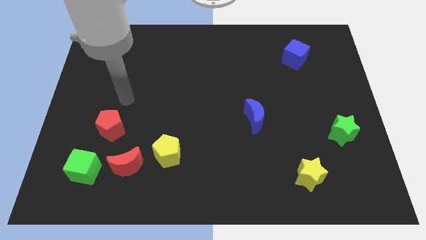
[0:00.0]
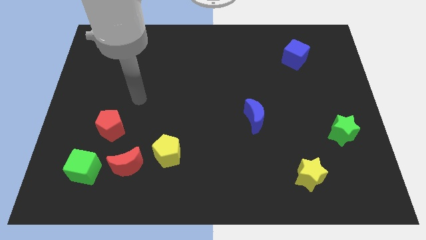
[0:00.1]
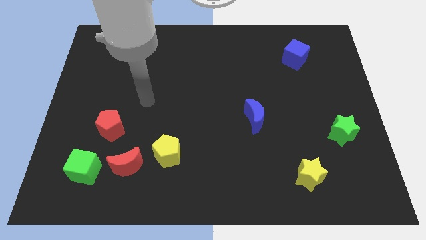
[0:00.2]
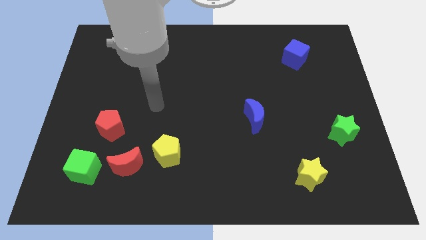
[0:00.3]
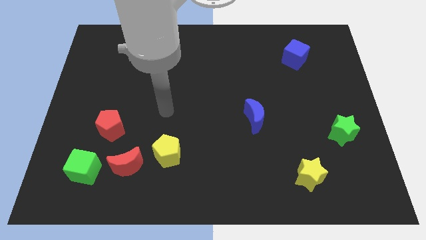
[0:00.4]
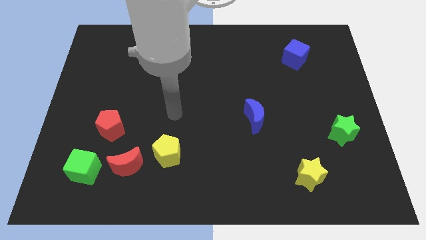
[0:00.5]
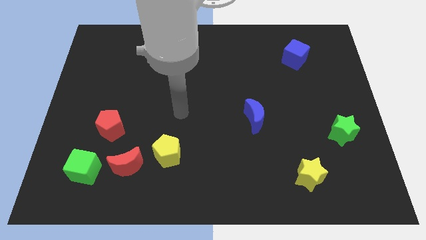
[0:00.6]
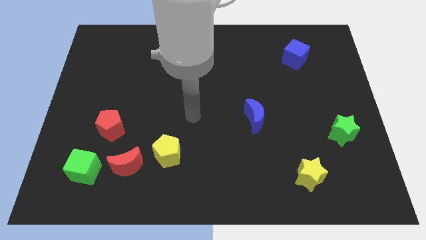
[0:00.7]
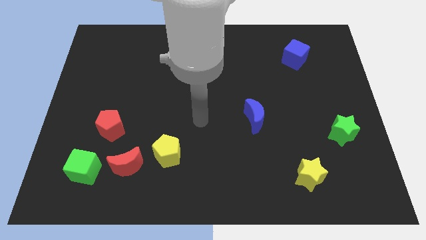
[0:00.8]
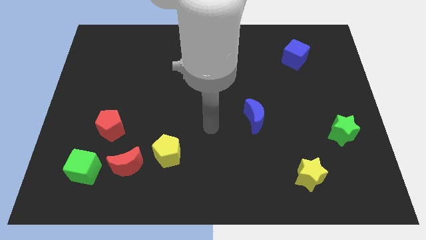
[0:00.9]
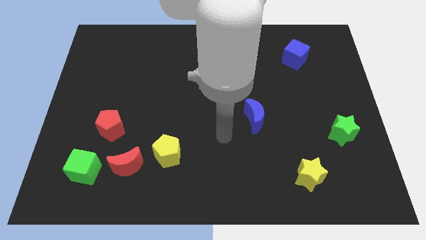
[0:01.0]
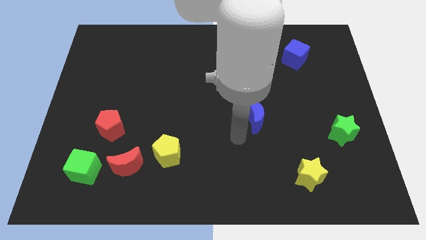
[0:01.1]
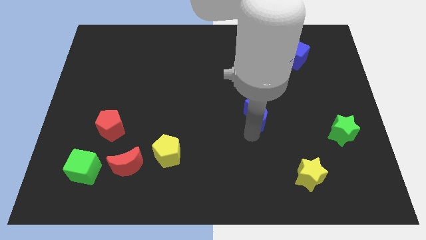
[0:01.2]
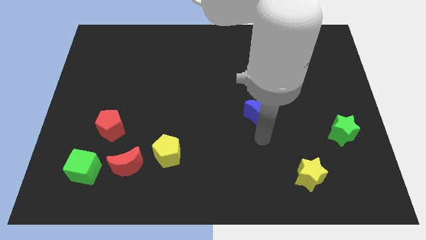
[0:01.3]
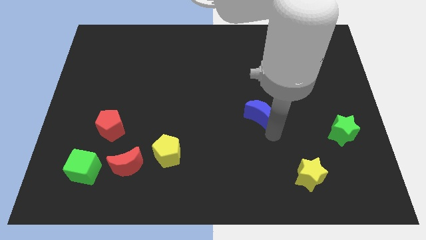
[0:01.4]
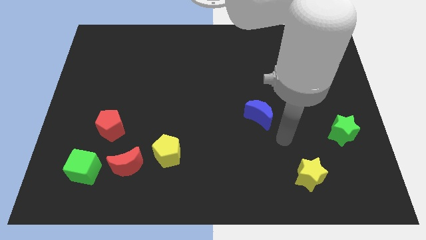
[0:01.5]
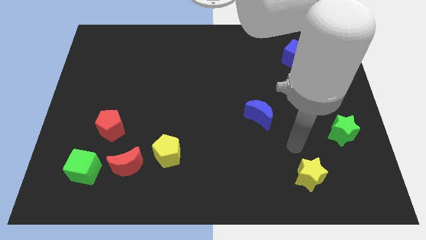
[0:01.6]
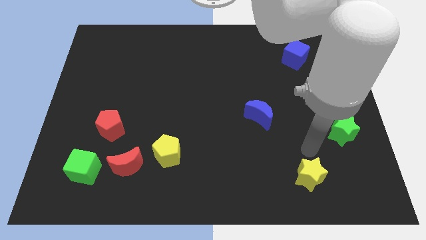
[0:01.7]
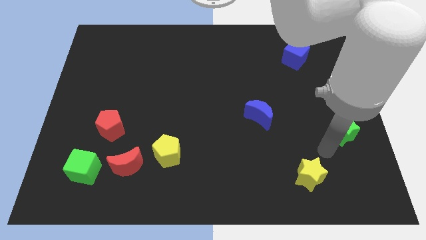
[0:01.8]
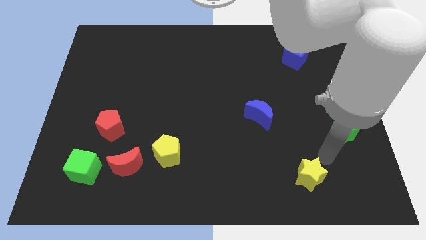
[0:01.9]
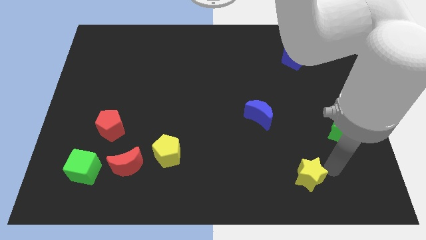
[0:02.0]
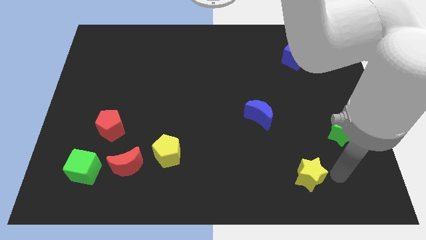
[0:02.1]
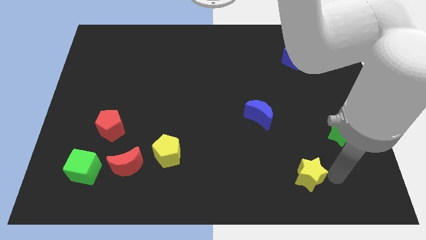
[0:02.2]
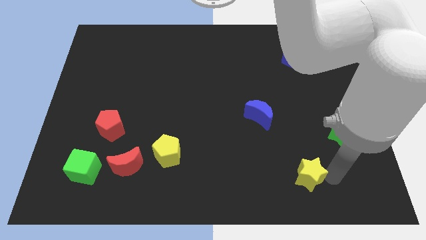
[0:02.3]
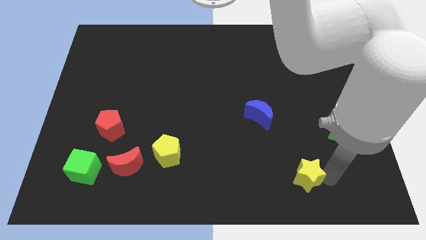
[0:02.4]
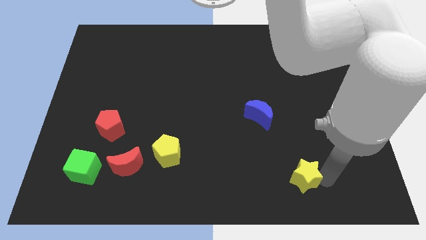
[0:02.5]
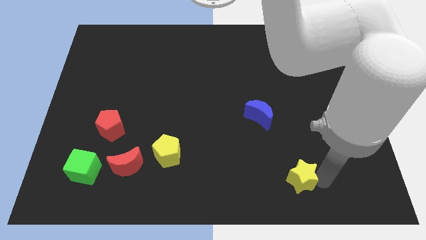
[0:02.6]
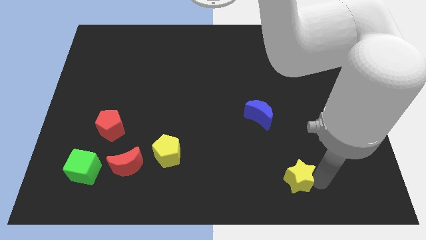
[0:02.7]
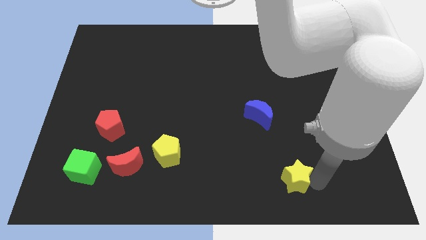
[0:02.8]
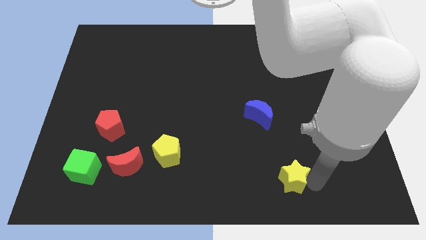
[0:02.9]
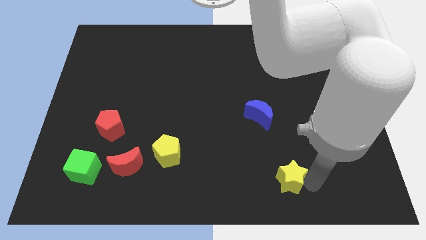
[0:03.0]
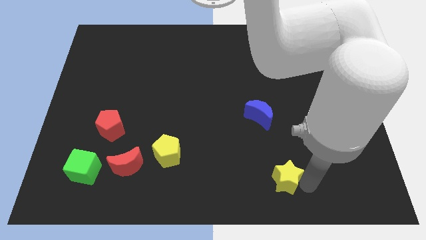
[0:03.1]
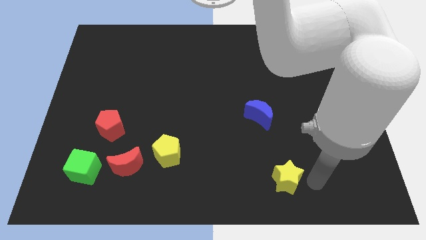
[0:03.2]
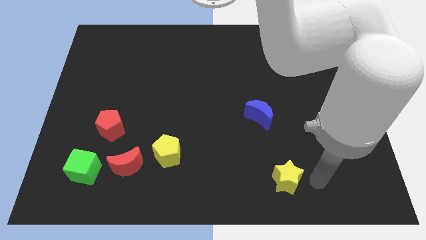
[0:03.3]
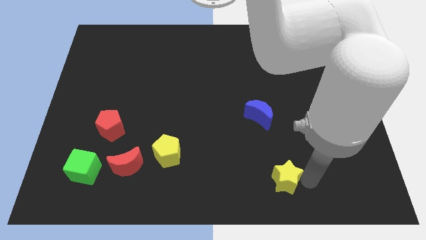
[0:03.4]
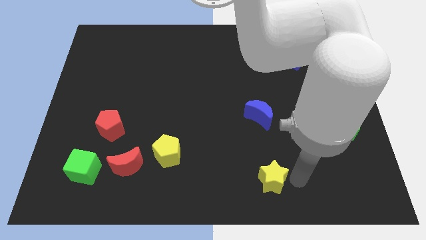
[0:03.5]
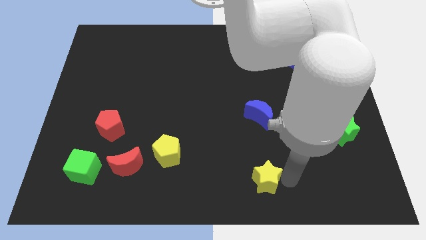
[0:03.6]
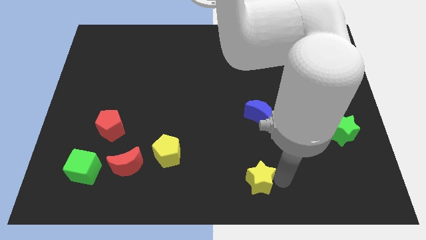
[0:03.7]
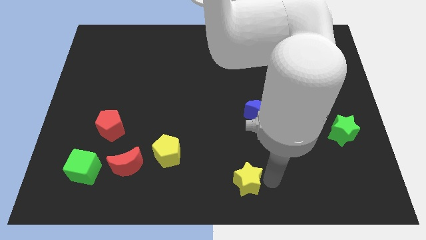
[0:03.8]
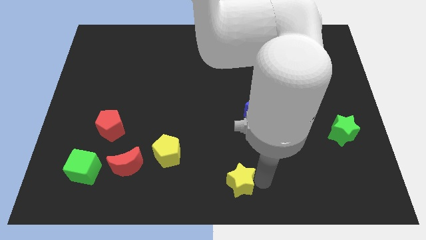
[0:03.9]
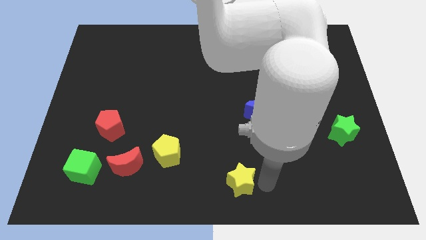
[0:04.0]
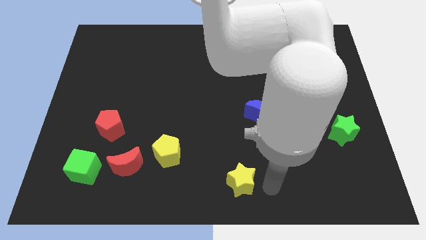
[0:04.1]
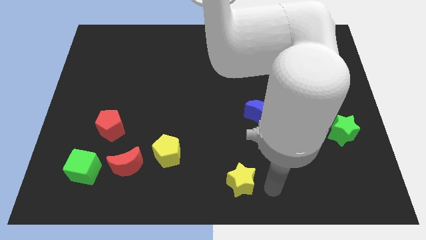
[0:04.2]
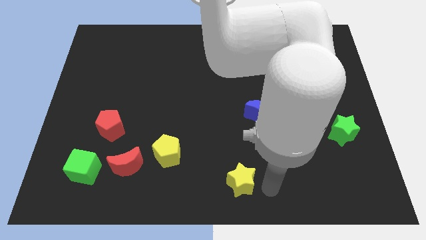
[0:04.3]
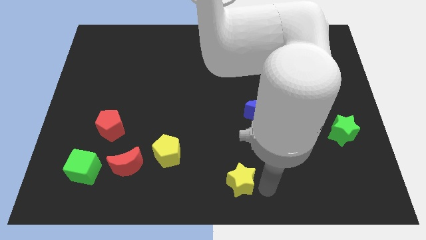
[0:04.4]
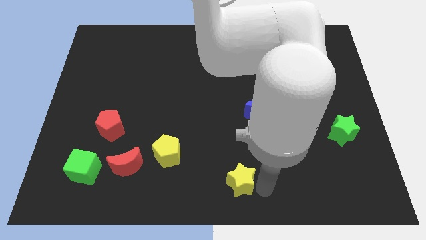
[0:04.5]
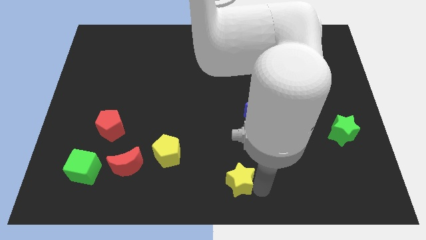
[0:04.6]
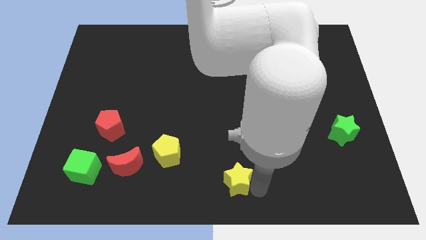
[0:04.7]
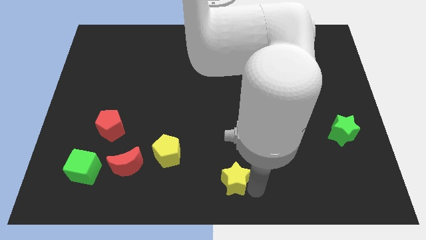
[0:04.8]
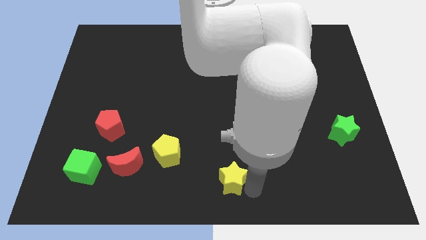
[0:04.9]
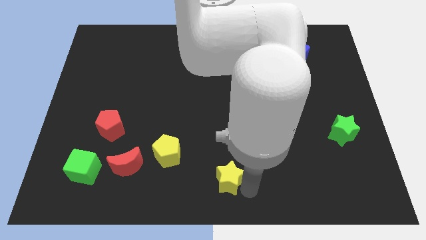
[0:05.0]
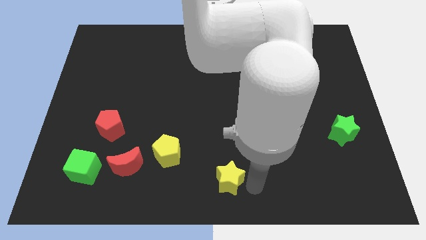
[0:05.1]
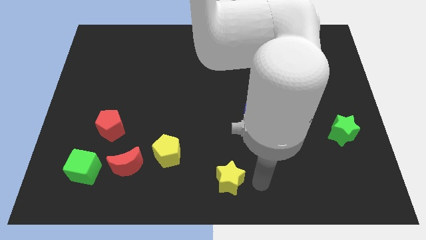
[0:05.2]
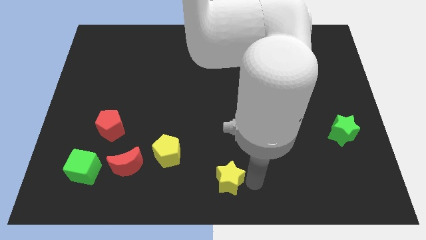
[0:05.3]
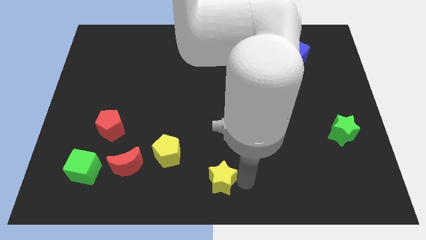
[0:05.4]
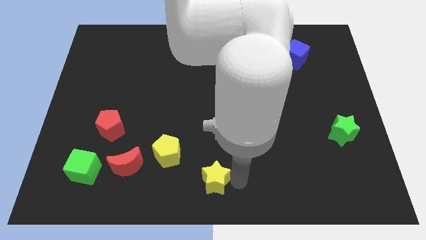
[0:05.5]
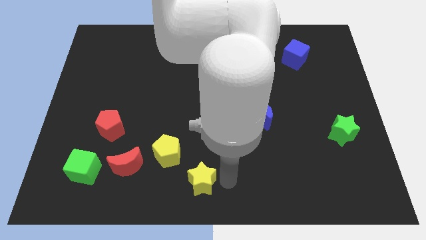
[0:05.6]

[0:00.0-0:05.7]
push the yellow star to the left

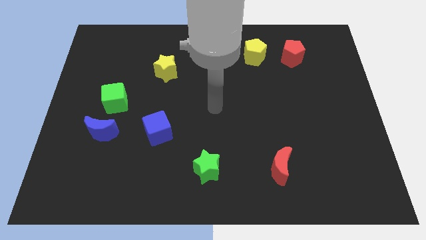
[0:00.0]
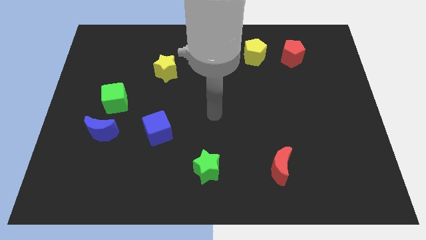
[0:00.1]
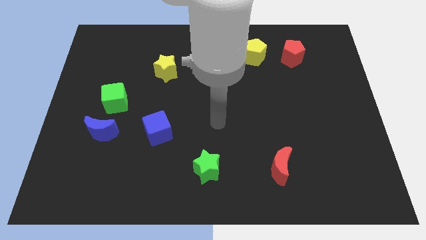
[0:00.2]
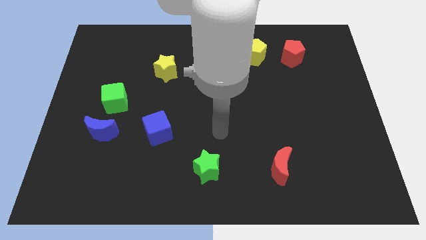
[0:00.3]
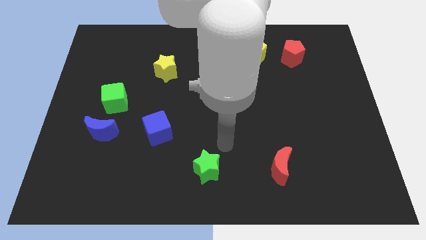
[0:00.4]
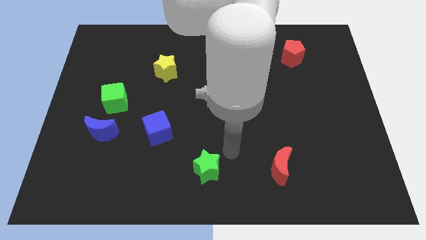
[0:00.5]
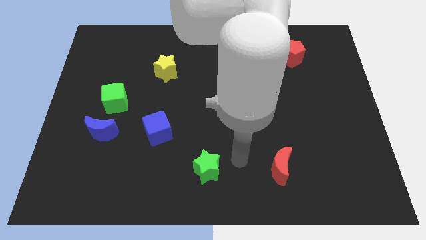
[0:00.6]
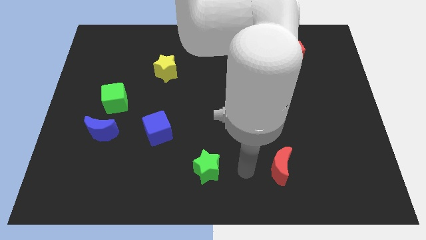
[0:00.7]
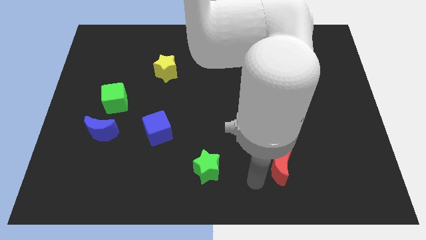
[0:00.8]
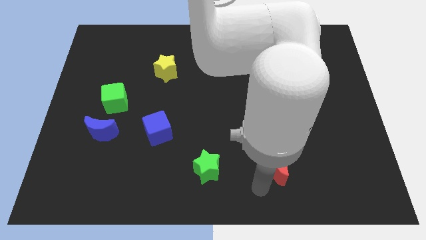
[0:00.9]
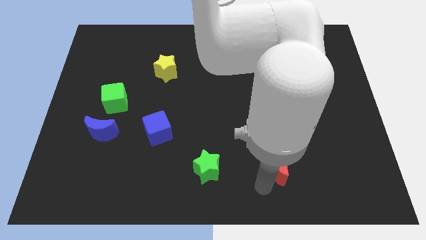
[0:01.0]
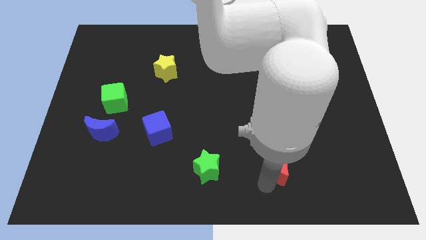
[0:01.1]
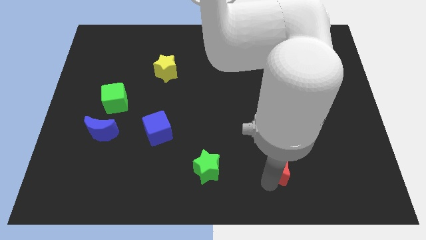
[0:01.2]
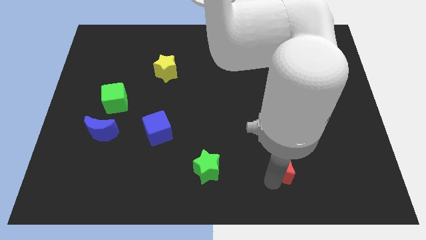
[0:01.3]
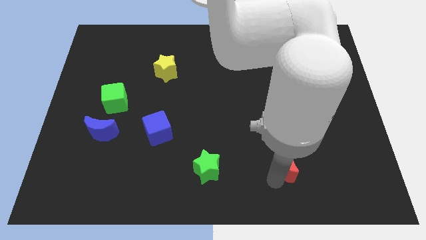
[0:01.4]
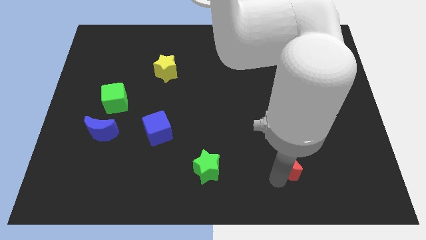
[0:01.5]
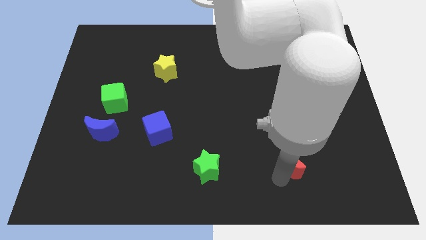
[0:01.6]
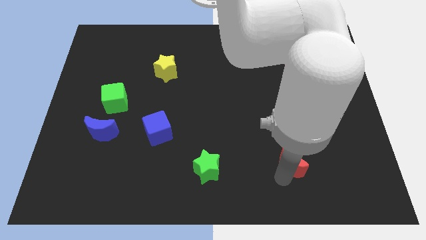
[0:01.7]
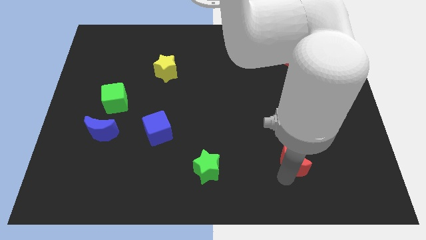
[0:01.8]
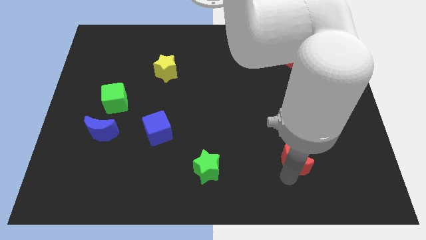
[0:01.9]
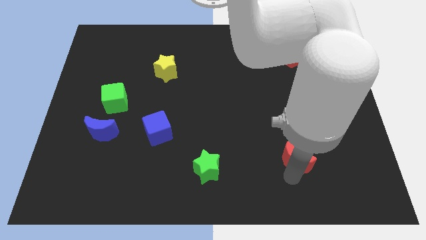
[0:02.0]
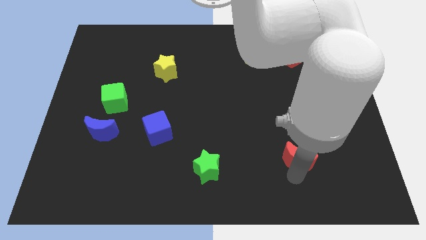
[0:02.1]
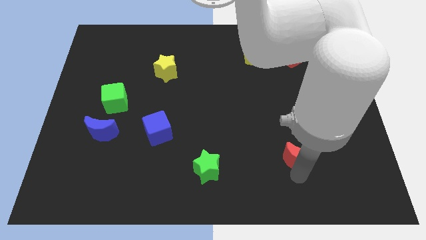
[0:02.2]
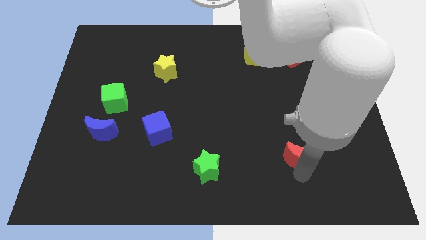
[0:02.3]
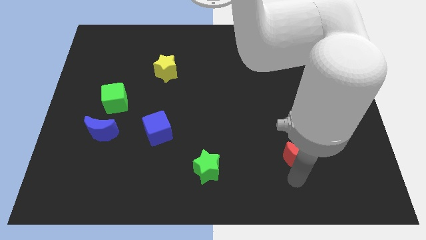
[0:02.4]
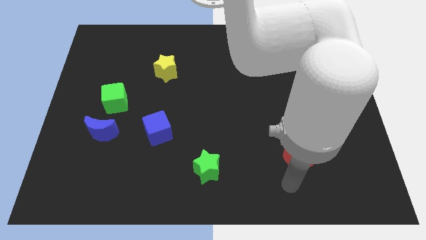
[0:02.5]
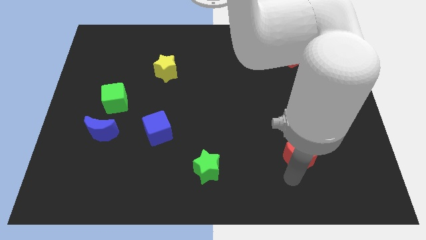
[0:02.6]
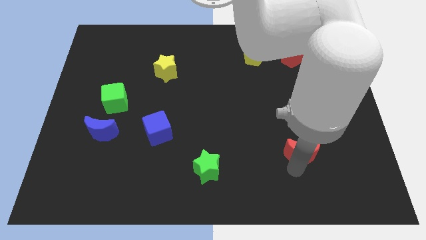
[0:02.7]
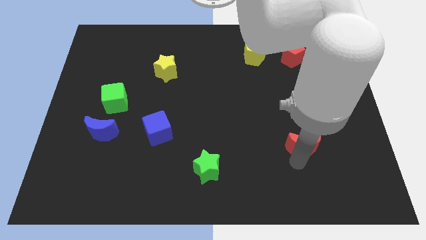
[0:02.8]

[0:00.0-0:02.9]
slightly move the red moon up and to the right
